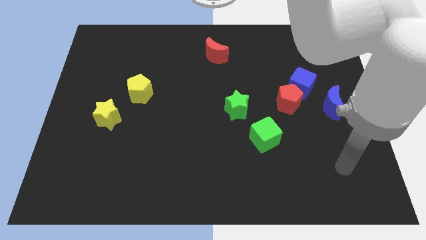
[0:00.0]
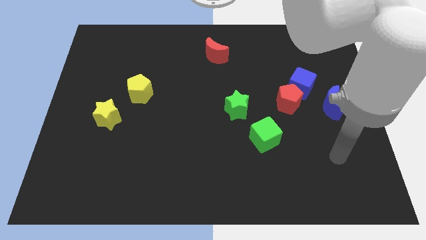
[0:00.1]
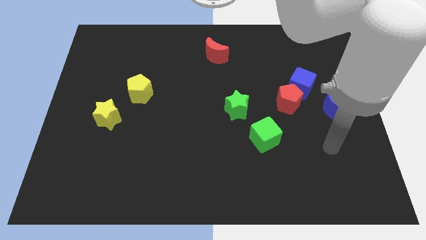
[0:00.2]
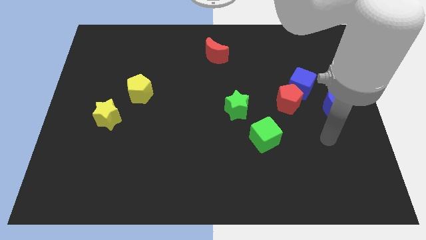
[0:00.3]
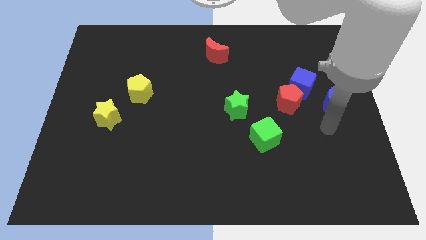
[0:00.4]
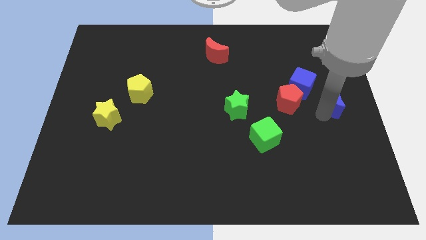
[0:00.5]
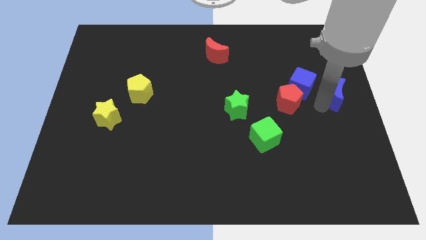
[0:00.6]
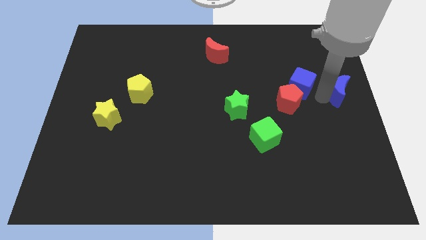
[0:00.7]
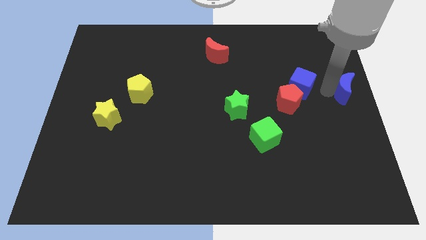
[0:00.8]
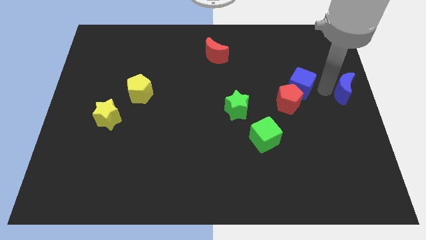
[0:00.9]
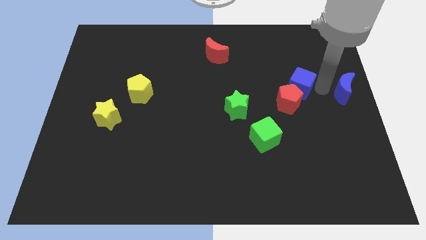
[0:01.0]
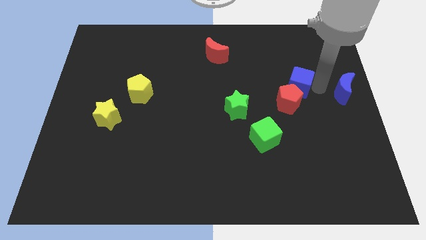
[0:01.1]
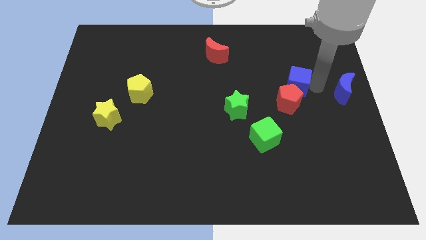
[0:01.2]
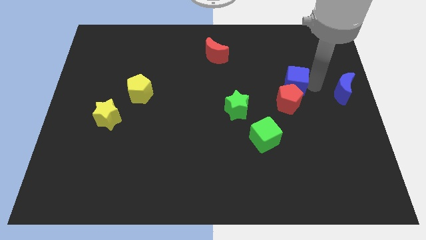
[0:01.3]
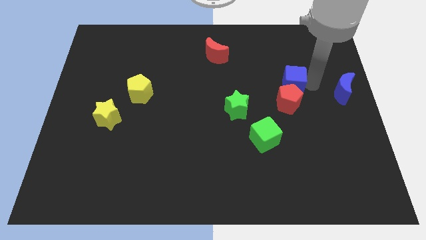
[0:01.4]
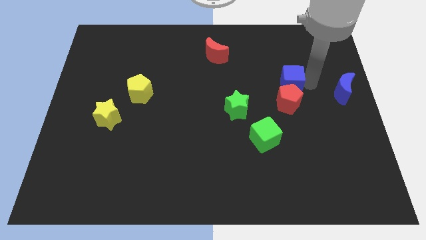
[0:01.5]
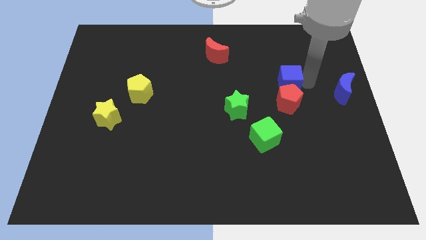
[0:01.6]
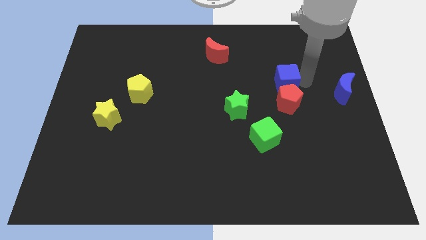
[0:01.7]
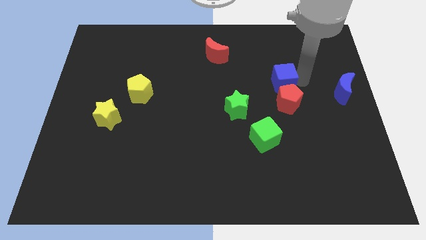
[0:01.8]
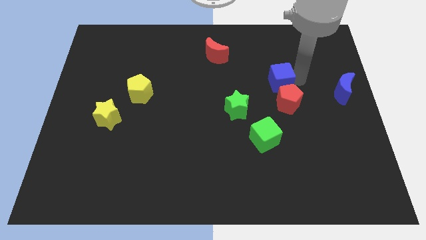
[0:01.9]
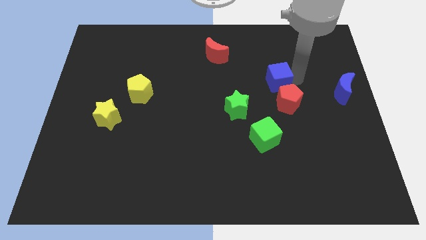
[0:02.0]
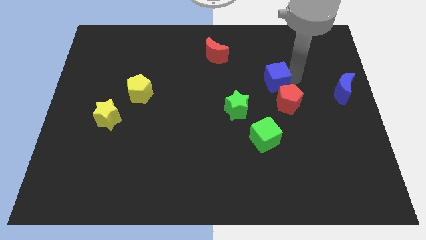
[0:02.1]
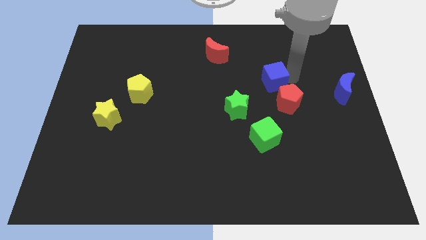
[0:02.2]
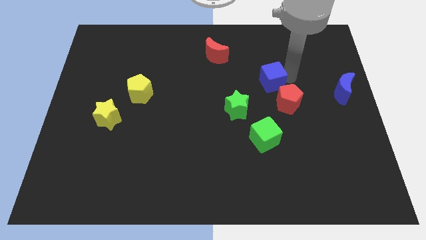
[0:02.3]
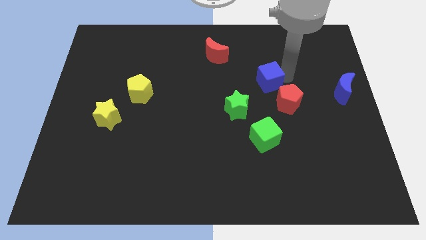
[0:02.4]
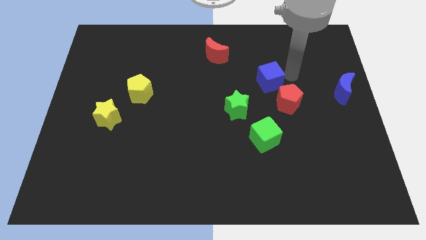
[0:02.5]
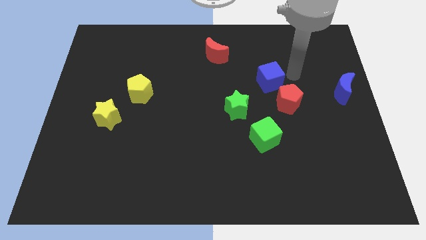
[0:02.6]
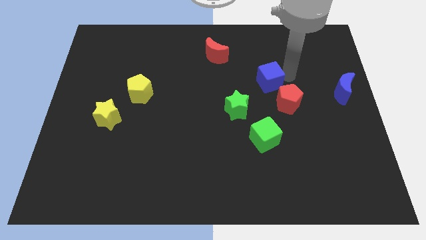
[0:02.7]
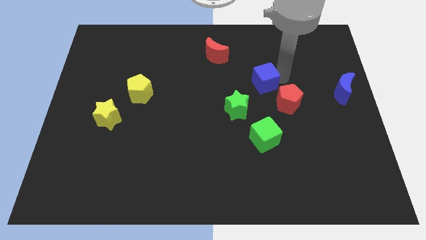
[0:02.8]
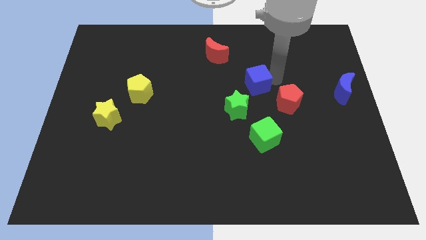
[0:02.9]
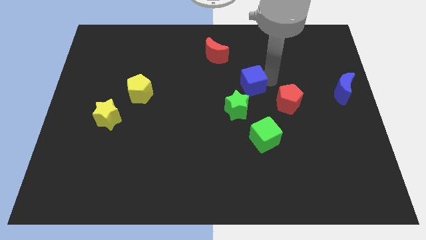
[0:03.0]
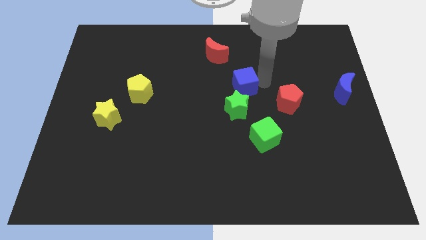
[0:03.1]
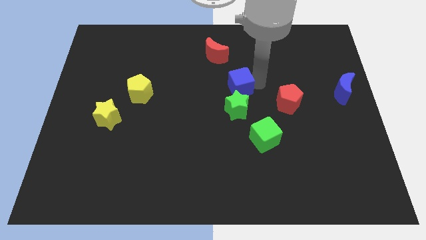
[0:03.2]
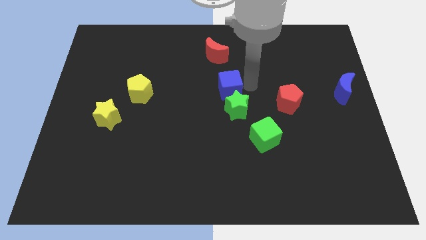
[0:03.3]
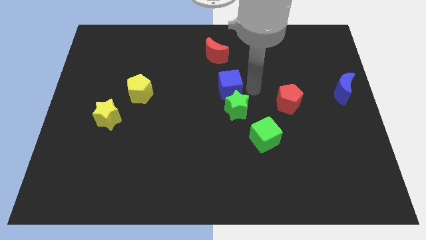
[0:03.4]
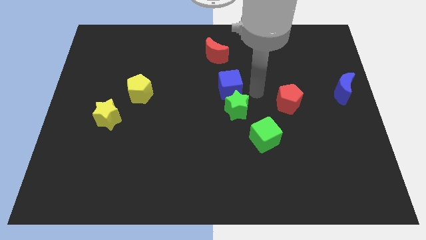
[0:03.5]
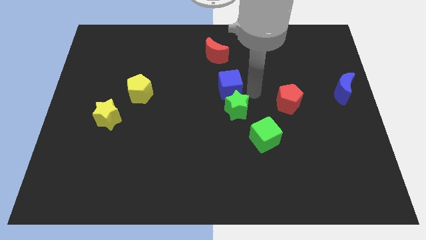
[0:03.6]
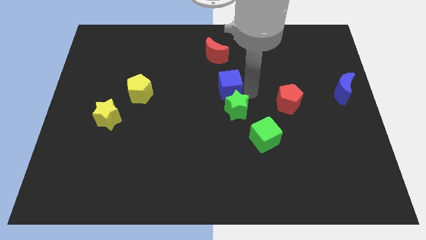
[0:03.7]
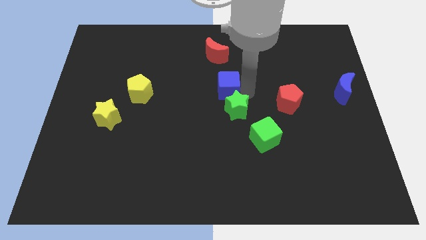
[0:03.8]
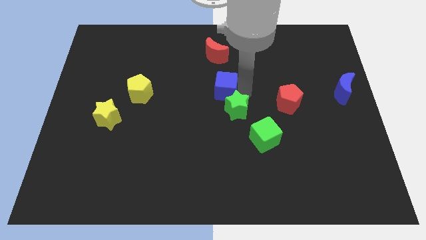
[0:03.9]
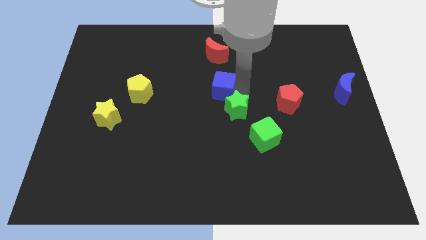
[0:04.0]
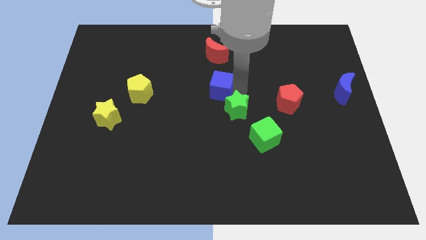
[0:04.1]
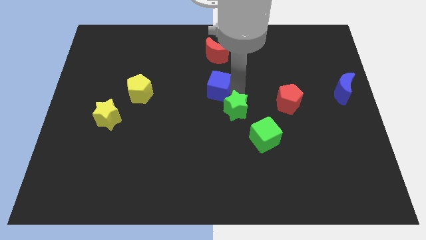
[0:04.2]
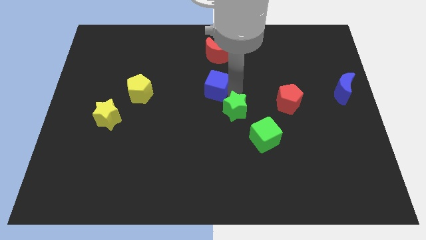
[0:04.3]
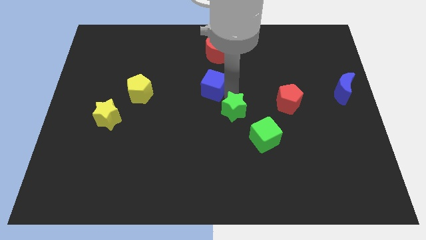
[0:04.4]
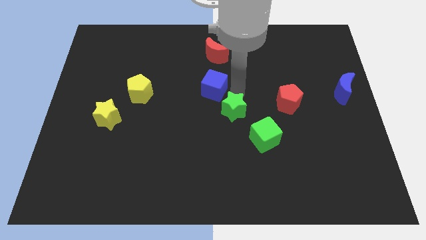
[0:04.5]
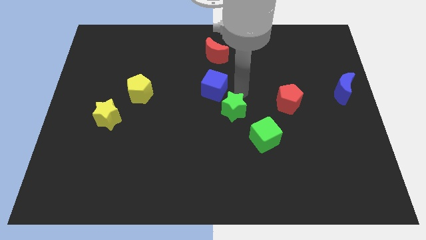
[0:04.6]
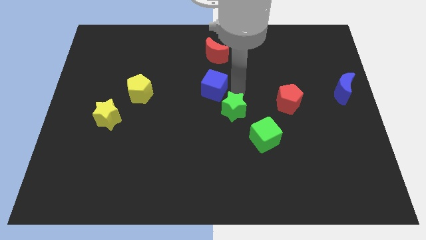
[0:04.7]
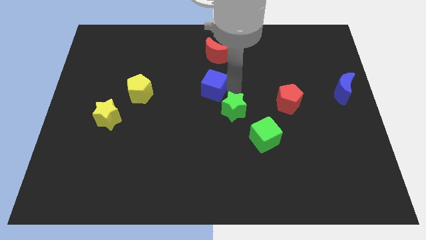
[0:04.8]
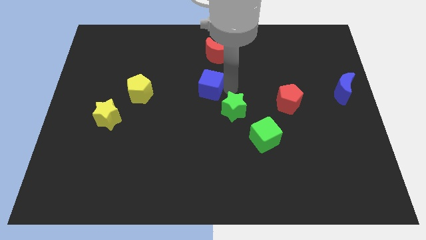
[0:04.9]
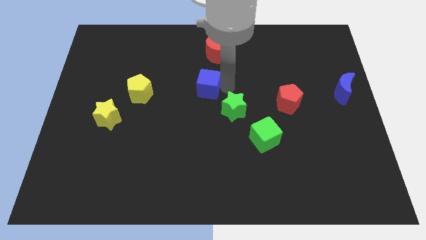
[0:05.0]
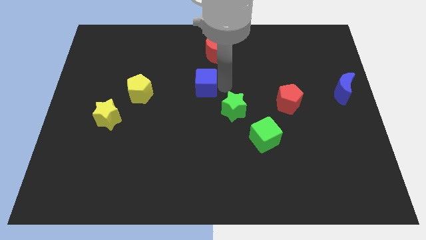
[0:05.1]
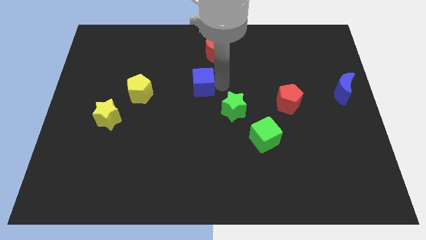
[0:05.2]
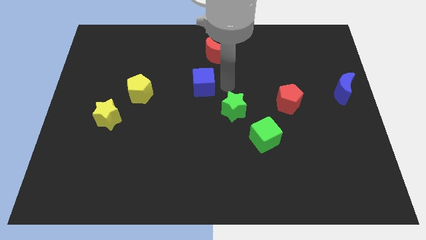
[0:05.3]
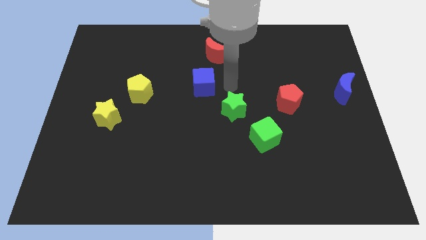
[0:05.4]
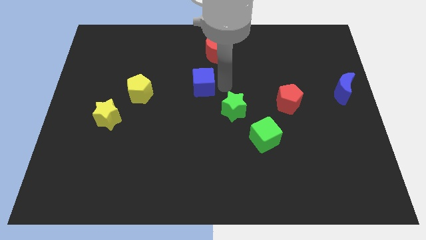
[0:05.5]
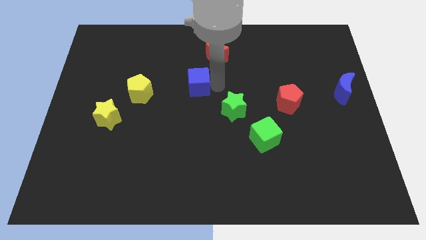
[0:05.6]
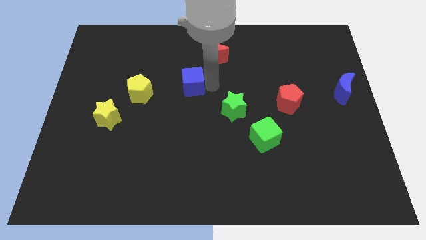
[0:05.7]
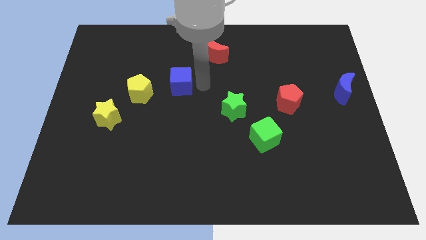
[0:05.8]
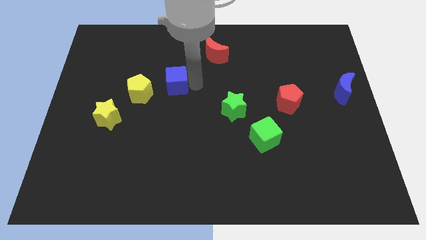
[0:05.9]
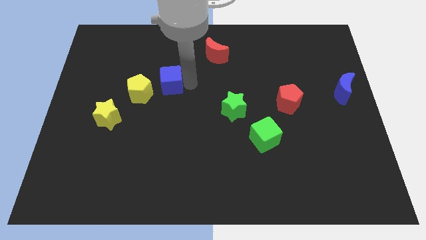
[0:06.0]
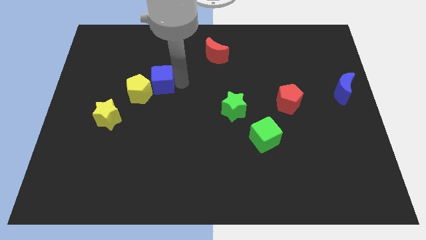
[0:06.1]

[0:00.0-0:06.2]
push the blue cube close to the yellow pentagon
